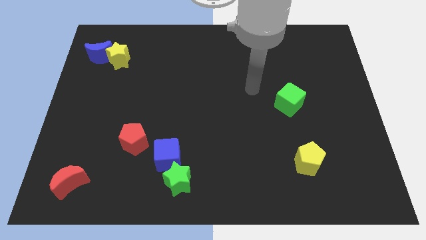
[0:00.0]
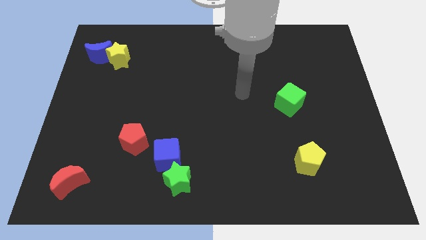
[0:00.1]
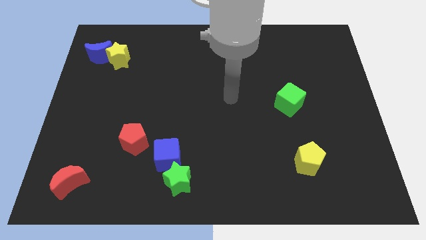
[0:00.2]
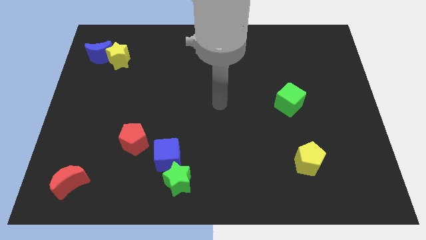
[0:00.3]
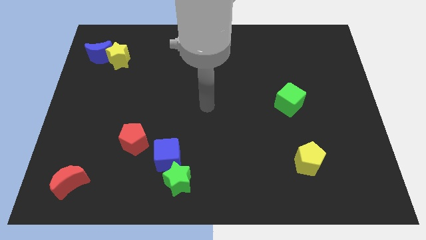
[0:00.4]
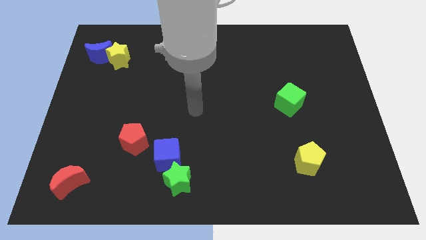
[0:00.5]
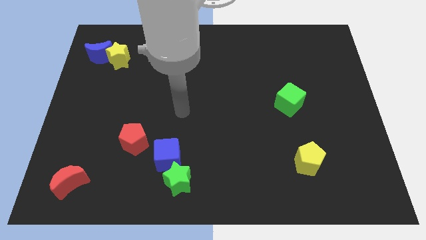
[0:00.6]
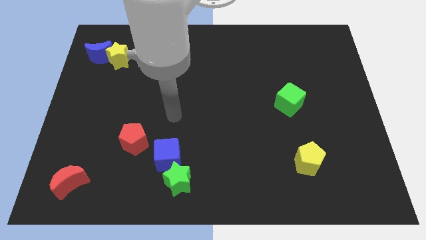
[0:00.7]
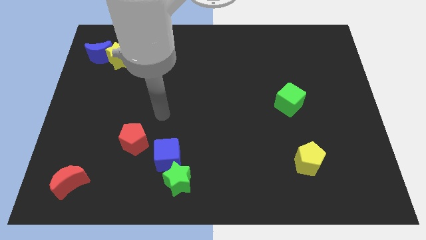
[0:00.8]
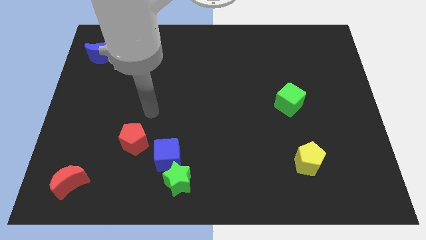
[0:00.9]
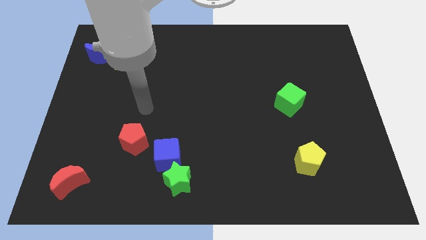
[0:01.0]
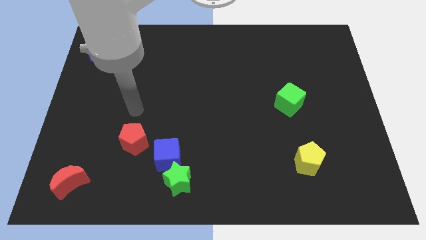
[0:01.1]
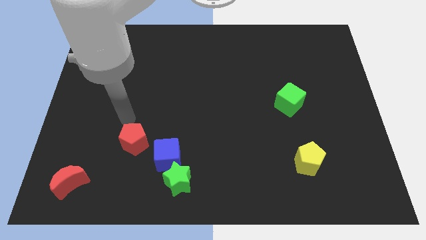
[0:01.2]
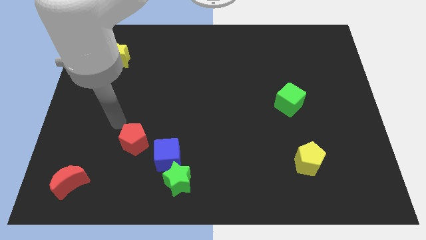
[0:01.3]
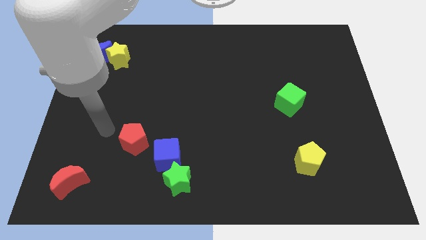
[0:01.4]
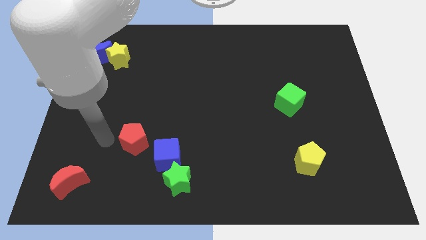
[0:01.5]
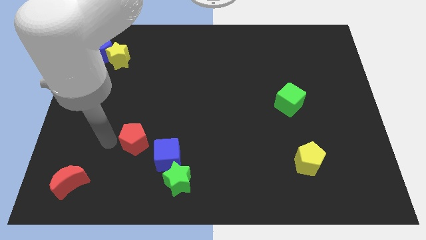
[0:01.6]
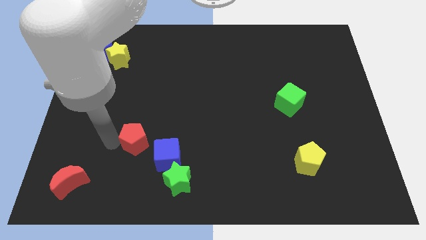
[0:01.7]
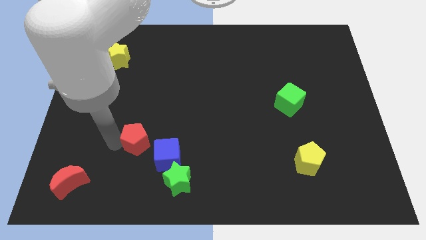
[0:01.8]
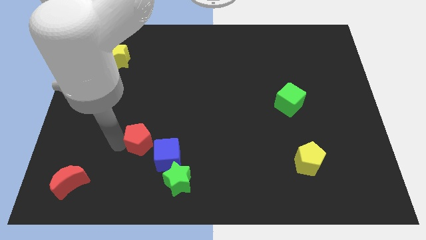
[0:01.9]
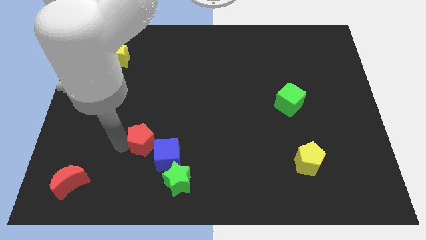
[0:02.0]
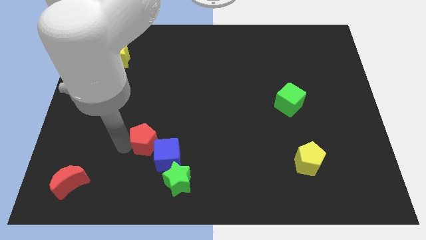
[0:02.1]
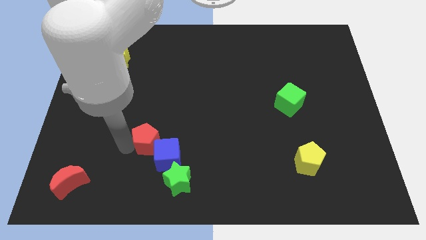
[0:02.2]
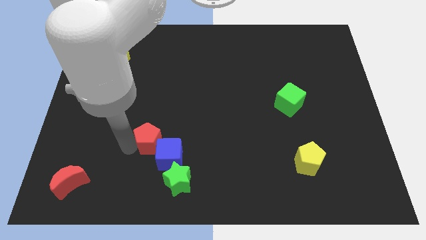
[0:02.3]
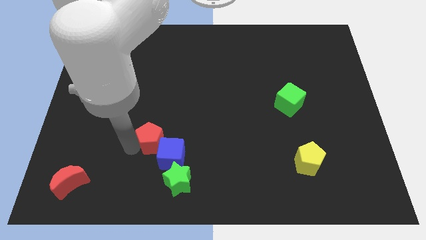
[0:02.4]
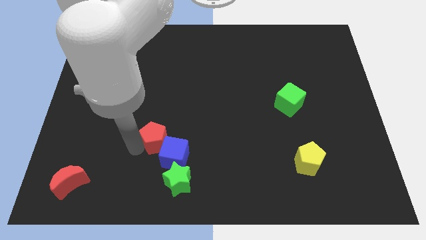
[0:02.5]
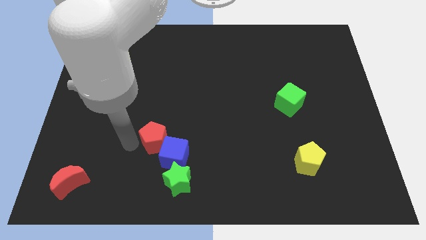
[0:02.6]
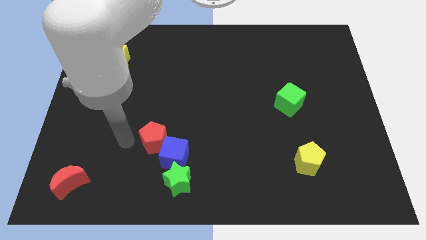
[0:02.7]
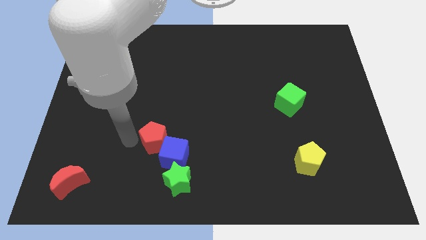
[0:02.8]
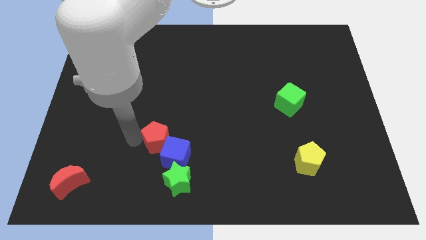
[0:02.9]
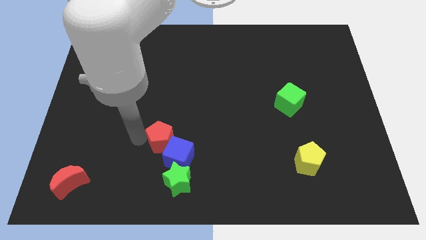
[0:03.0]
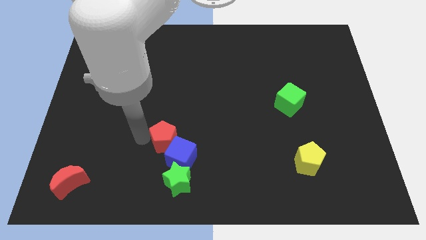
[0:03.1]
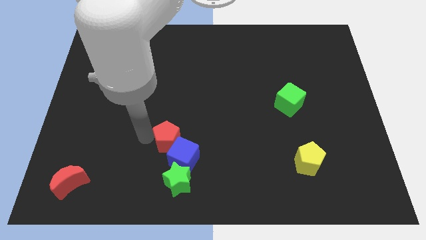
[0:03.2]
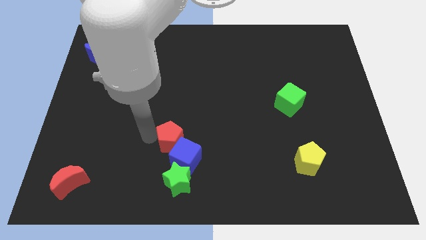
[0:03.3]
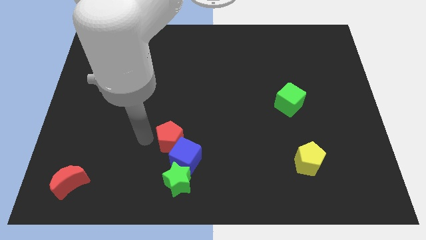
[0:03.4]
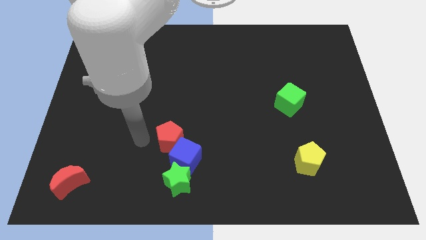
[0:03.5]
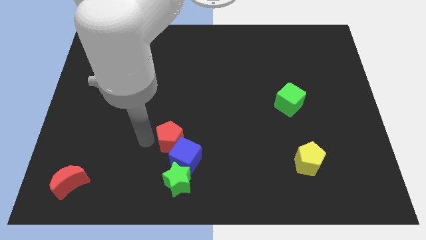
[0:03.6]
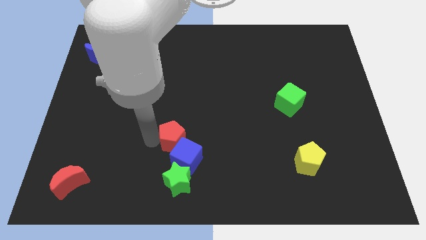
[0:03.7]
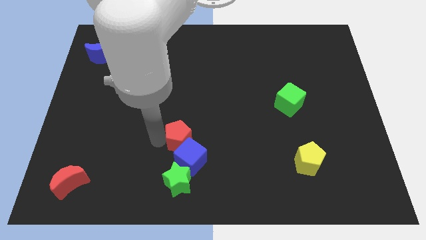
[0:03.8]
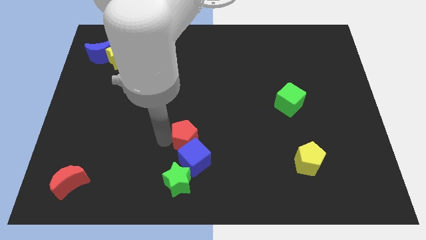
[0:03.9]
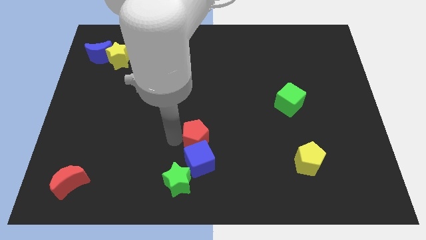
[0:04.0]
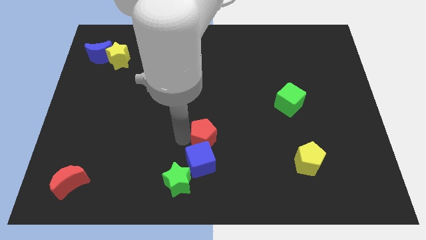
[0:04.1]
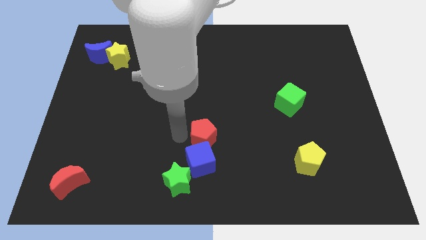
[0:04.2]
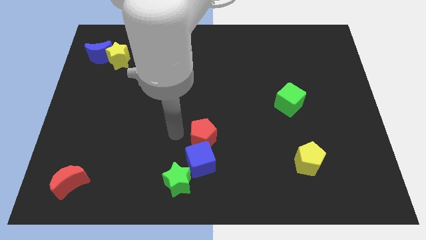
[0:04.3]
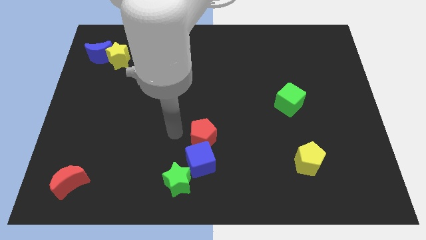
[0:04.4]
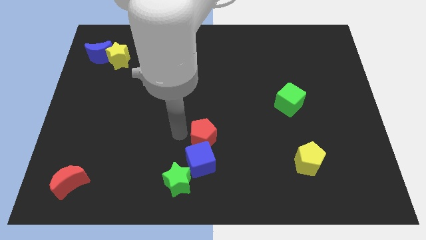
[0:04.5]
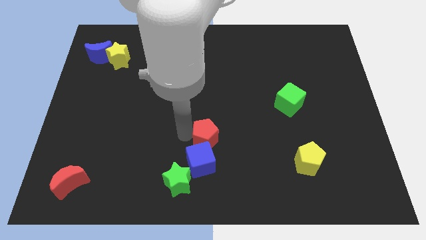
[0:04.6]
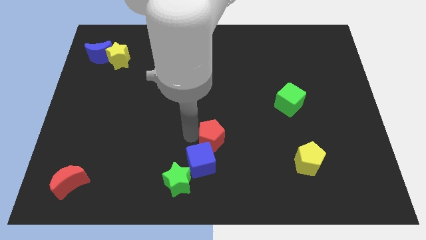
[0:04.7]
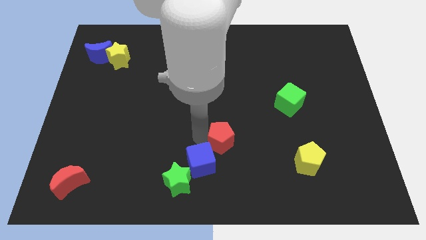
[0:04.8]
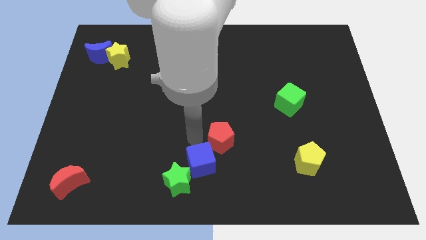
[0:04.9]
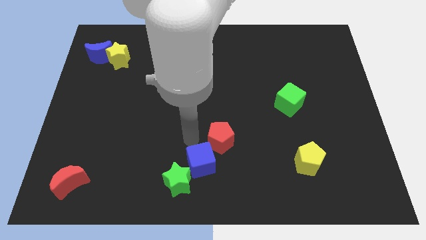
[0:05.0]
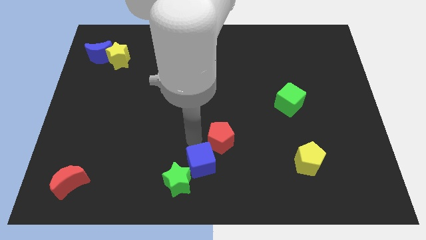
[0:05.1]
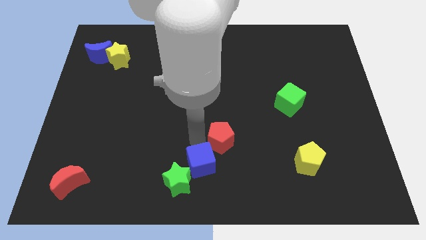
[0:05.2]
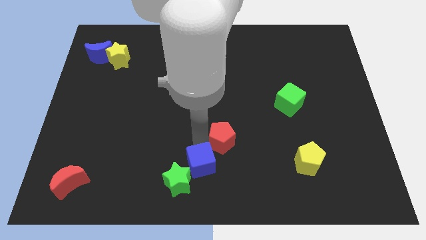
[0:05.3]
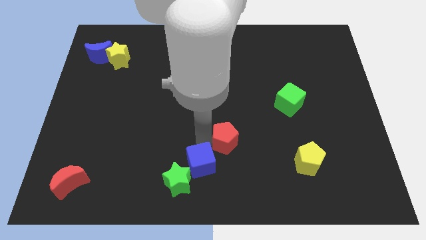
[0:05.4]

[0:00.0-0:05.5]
move the red pentagon right

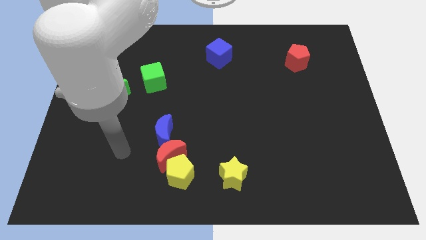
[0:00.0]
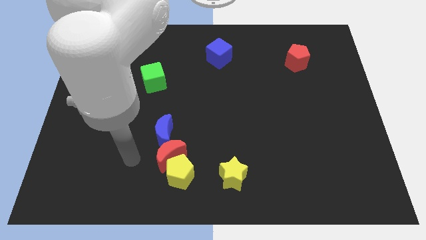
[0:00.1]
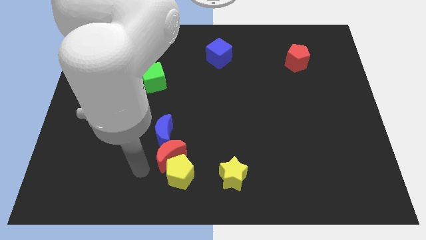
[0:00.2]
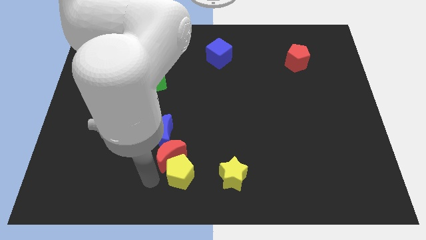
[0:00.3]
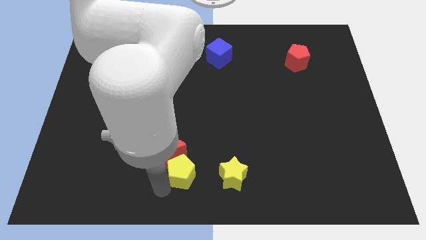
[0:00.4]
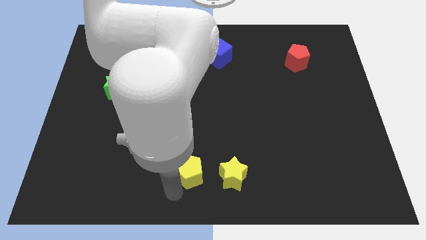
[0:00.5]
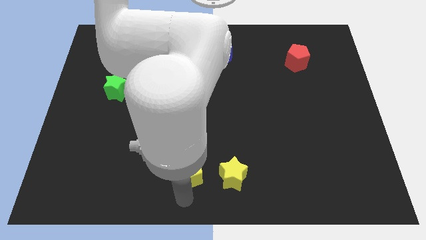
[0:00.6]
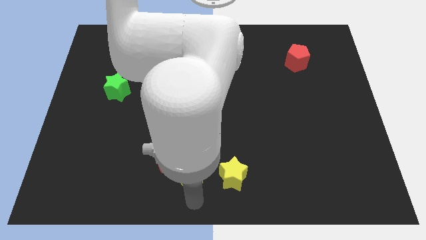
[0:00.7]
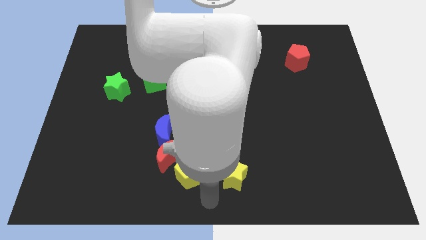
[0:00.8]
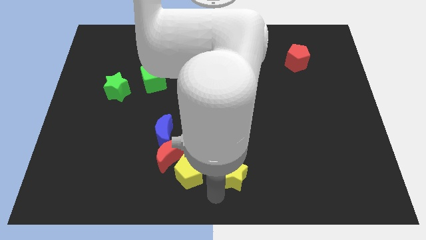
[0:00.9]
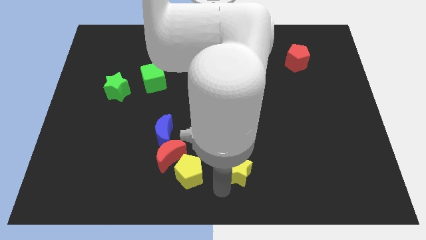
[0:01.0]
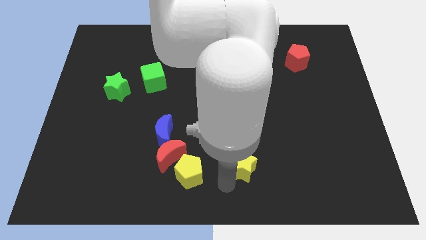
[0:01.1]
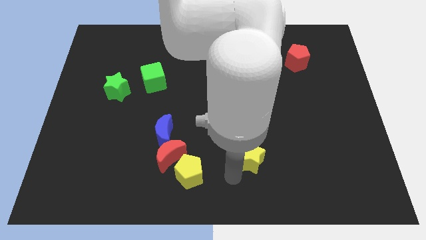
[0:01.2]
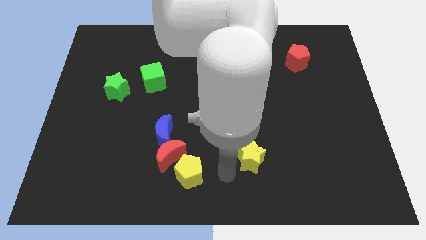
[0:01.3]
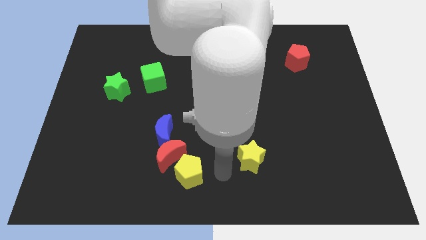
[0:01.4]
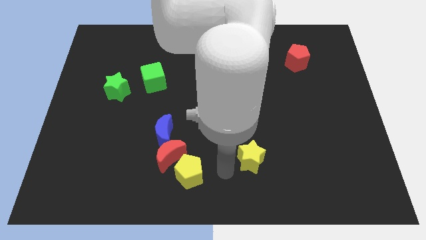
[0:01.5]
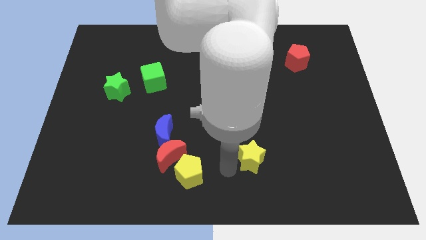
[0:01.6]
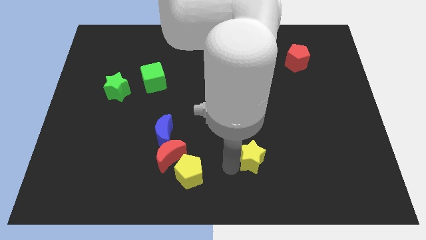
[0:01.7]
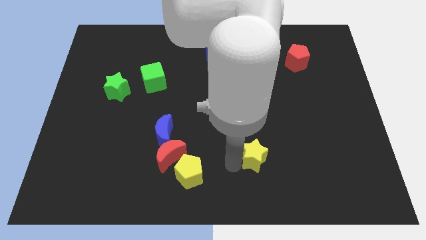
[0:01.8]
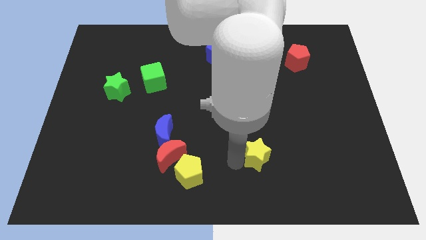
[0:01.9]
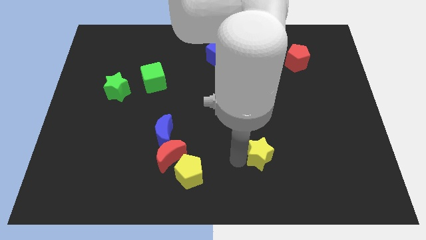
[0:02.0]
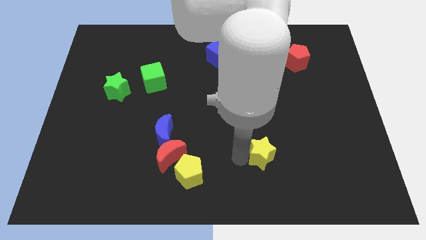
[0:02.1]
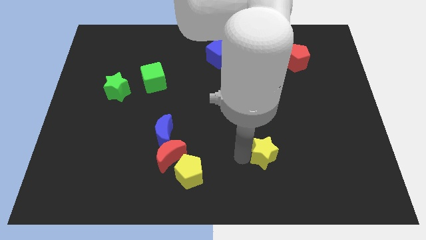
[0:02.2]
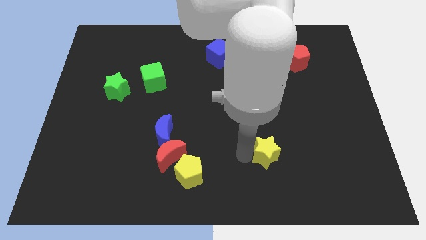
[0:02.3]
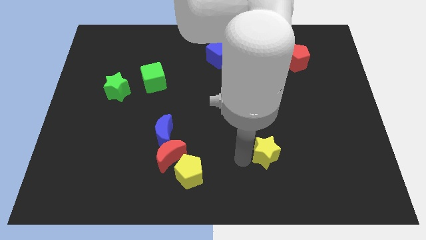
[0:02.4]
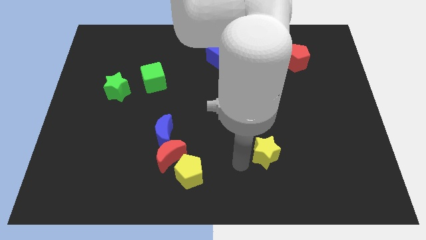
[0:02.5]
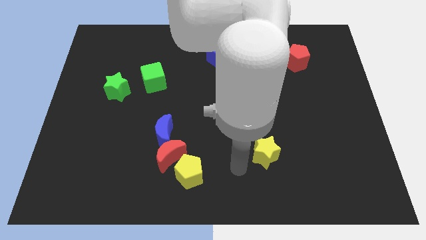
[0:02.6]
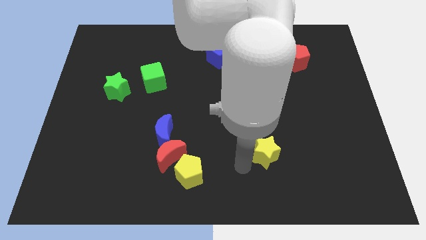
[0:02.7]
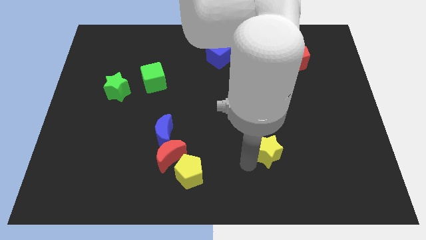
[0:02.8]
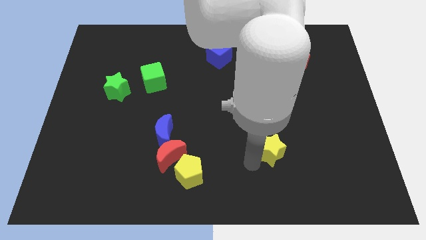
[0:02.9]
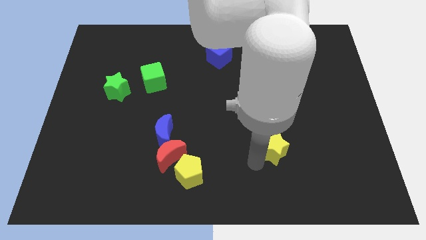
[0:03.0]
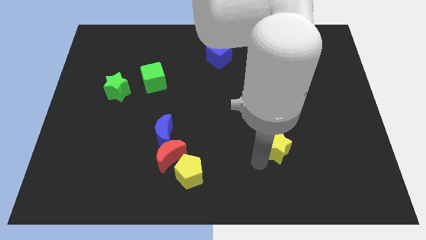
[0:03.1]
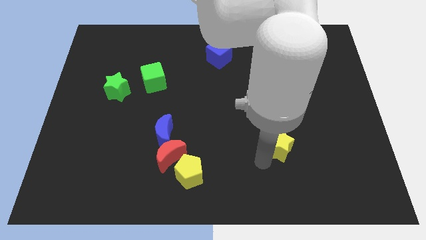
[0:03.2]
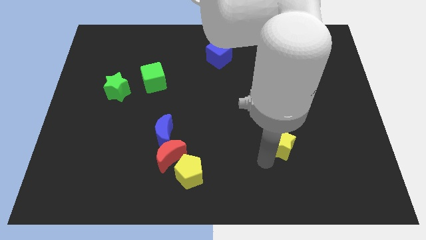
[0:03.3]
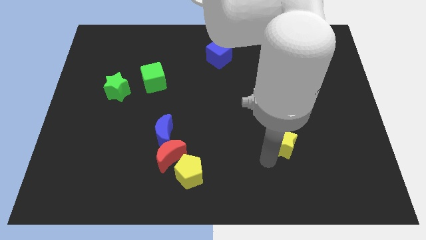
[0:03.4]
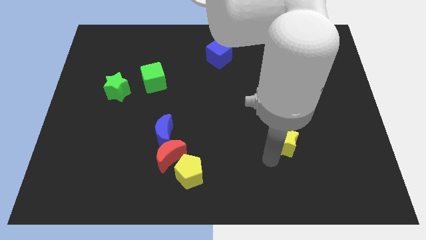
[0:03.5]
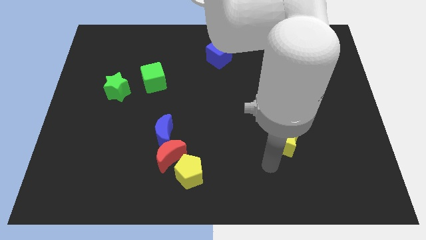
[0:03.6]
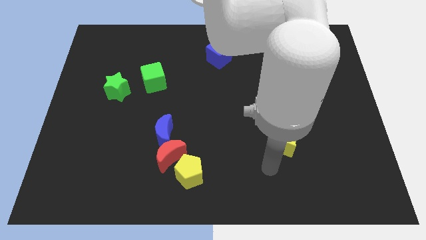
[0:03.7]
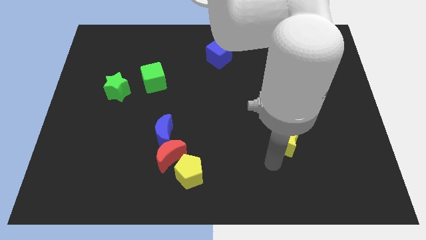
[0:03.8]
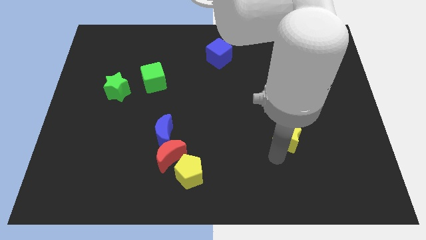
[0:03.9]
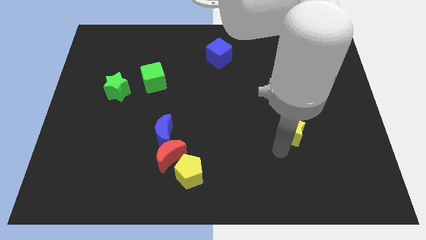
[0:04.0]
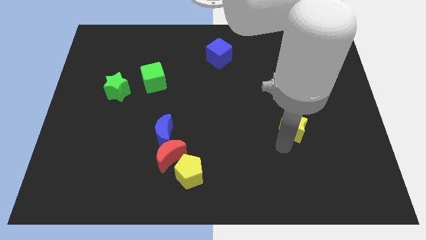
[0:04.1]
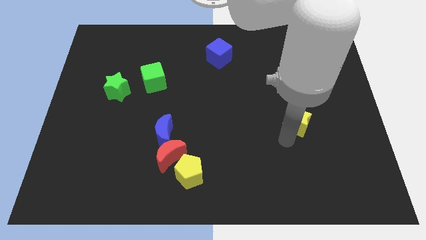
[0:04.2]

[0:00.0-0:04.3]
push the yellow star up and then to the right
